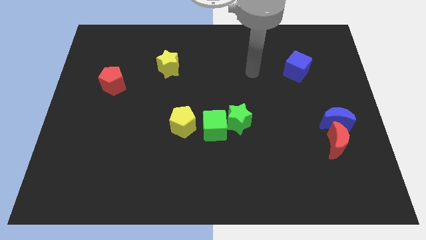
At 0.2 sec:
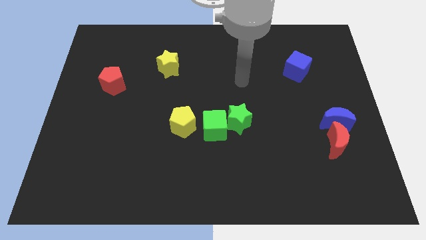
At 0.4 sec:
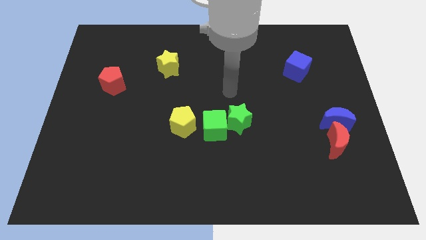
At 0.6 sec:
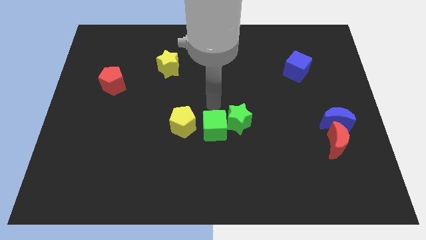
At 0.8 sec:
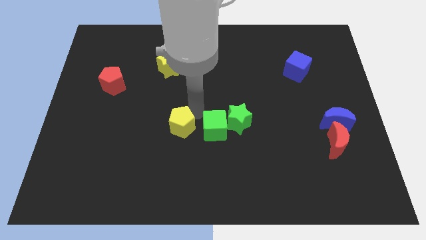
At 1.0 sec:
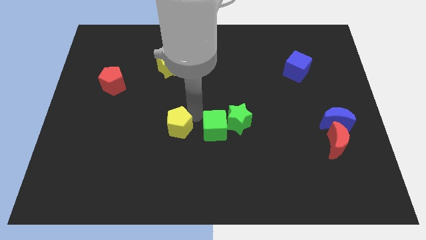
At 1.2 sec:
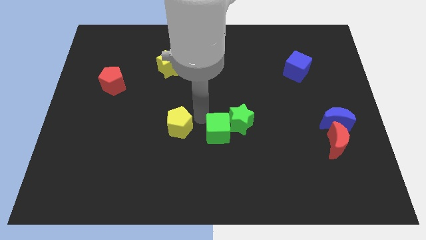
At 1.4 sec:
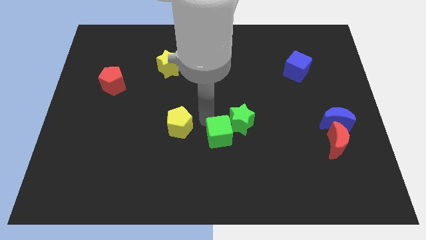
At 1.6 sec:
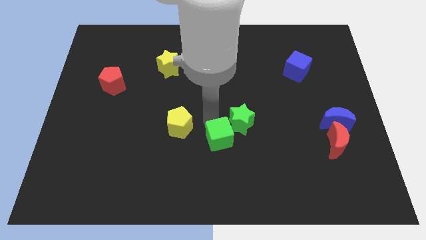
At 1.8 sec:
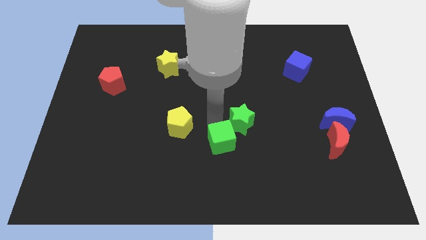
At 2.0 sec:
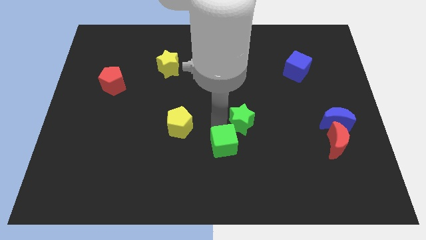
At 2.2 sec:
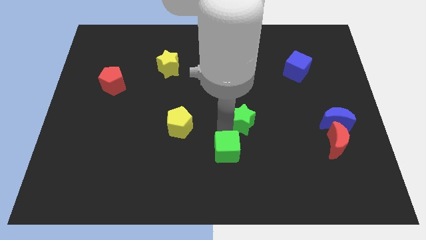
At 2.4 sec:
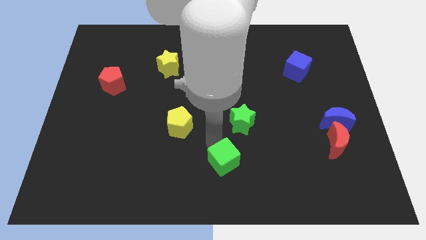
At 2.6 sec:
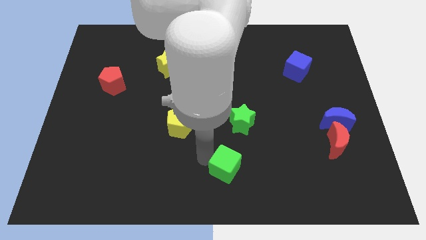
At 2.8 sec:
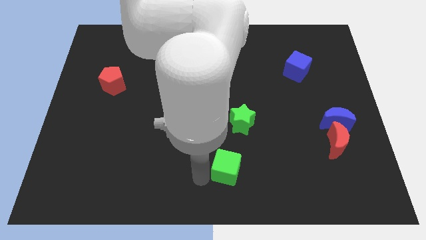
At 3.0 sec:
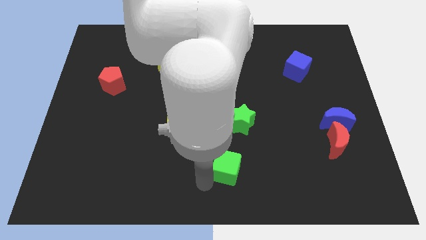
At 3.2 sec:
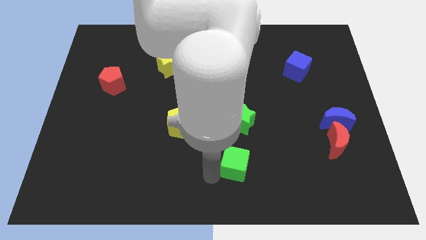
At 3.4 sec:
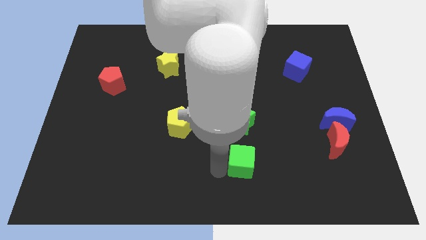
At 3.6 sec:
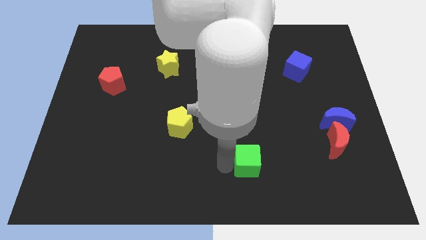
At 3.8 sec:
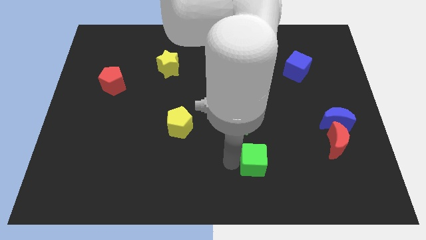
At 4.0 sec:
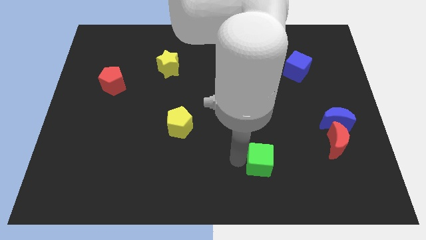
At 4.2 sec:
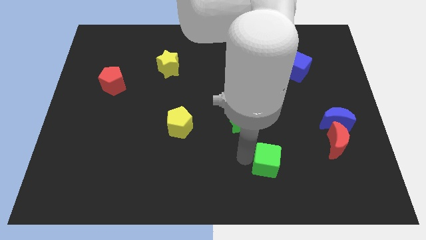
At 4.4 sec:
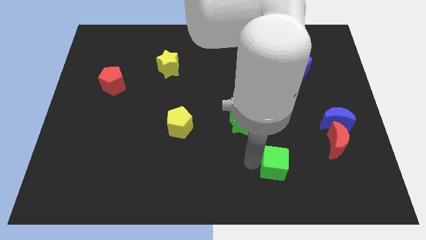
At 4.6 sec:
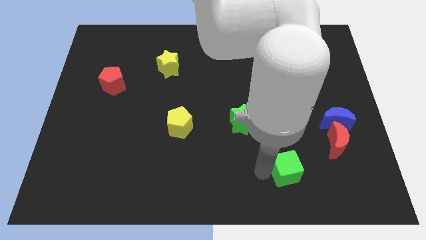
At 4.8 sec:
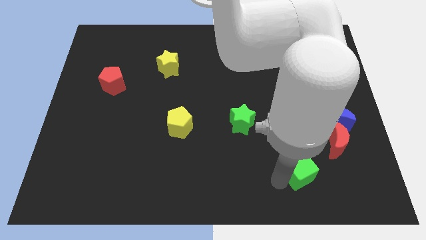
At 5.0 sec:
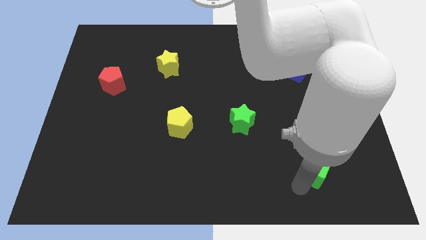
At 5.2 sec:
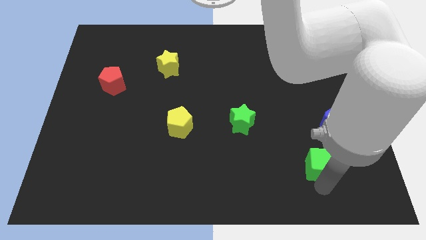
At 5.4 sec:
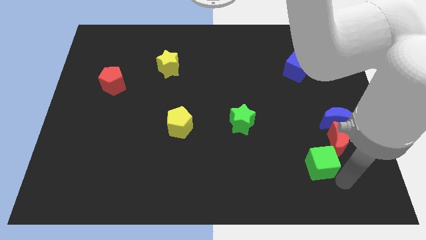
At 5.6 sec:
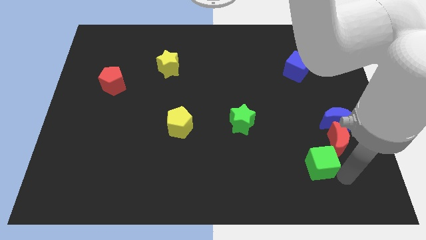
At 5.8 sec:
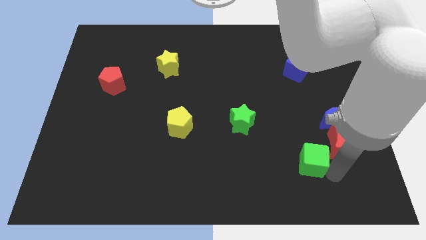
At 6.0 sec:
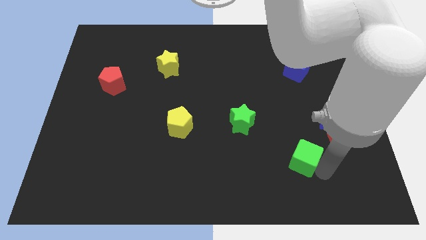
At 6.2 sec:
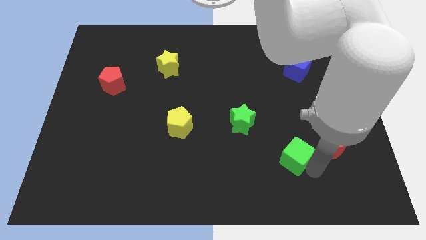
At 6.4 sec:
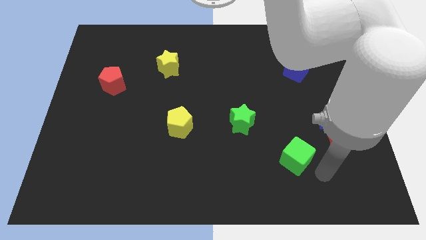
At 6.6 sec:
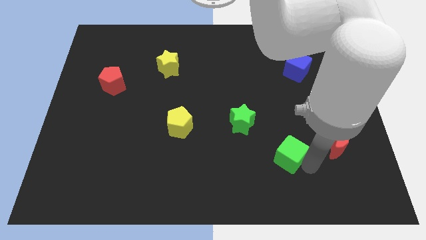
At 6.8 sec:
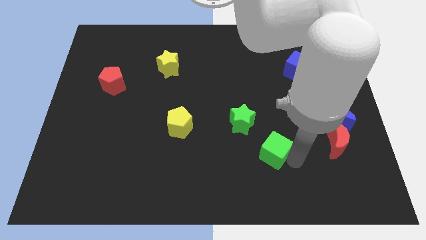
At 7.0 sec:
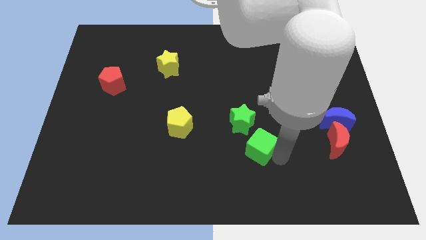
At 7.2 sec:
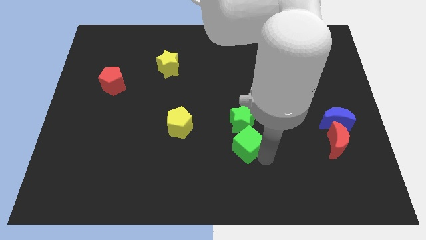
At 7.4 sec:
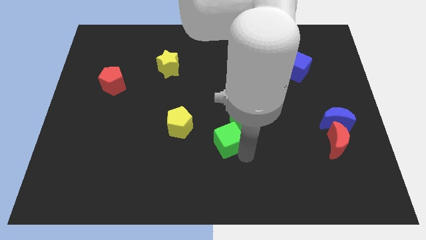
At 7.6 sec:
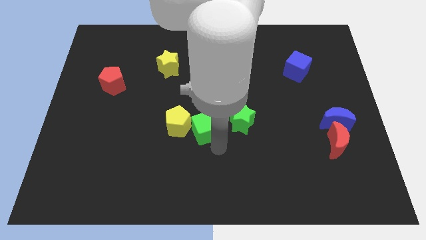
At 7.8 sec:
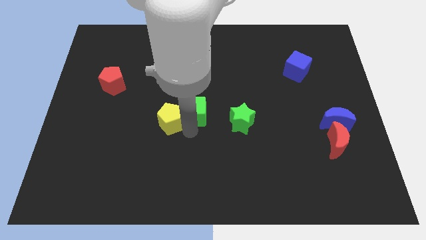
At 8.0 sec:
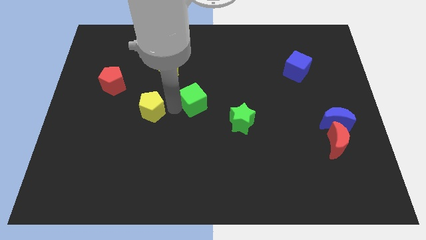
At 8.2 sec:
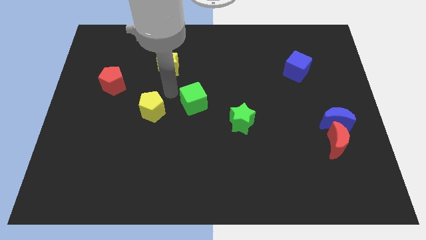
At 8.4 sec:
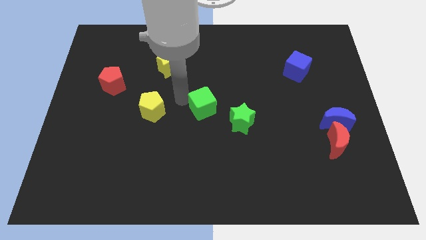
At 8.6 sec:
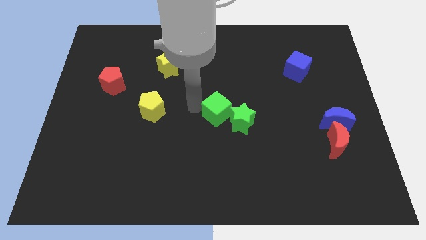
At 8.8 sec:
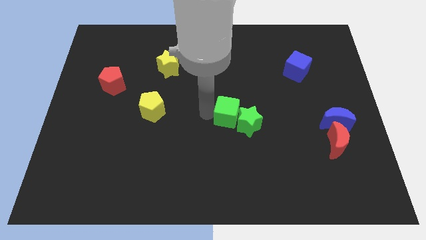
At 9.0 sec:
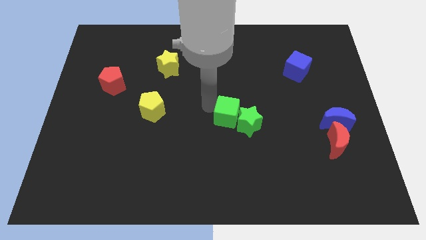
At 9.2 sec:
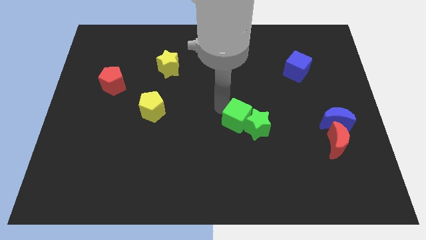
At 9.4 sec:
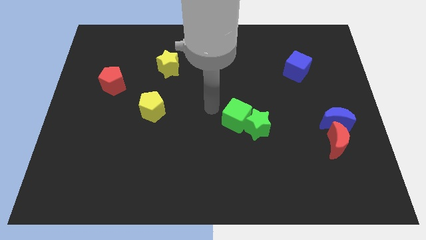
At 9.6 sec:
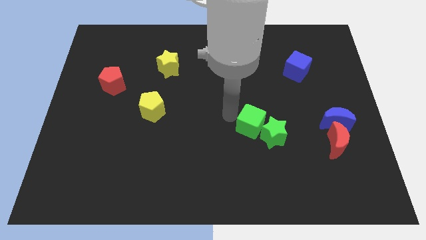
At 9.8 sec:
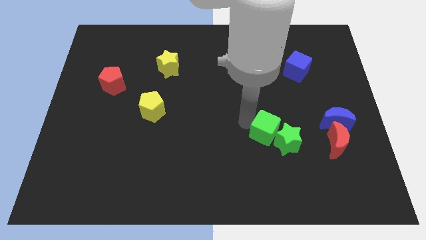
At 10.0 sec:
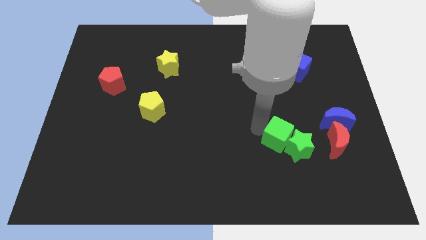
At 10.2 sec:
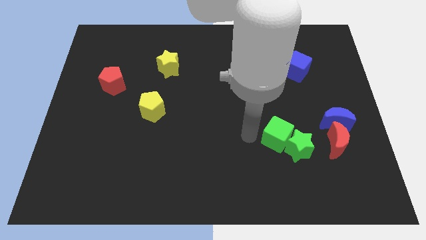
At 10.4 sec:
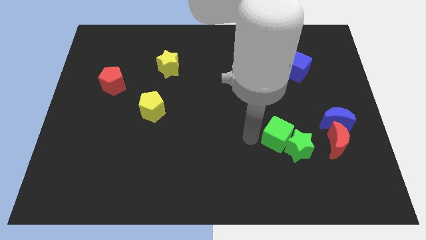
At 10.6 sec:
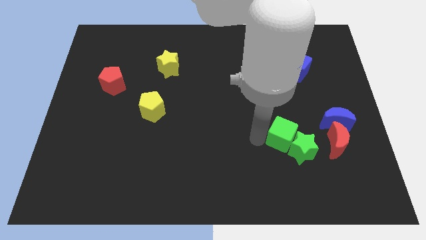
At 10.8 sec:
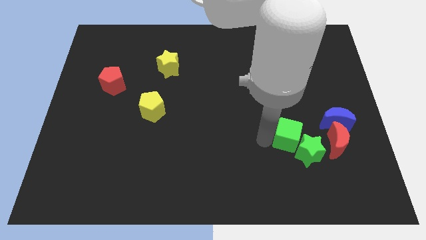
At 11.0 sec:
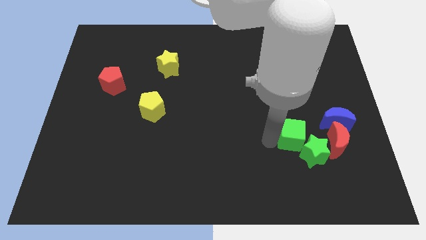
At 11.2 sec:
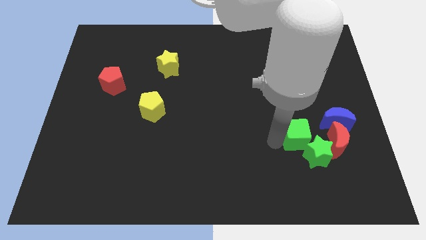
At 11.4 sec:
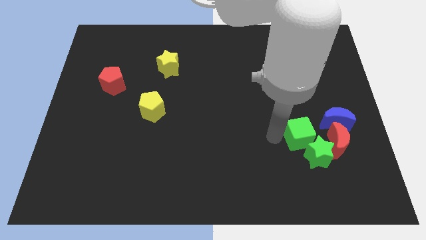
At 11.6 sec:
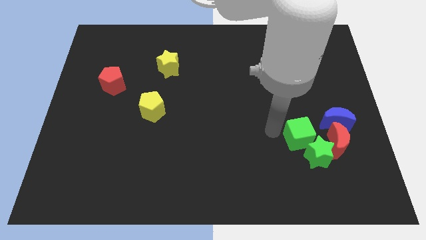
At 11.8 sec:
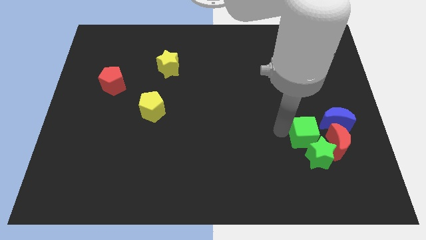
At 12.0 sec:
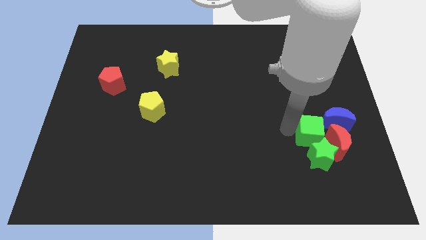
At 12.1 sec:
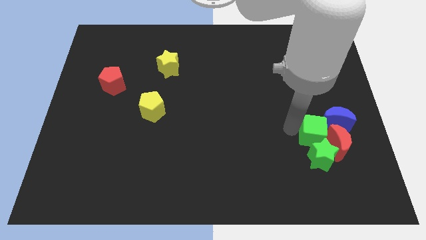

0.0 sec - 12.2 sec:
slide the green cube close to the red moon

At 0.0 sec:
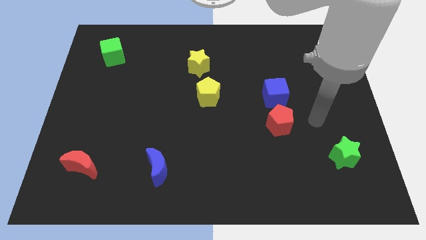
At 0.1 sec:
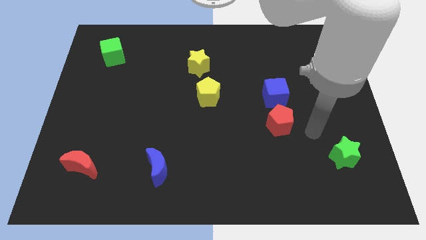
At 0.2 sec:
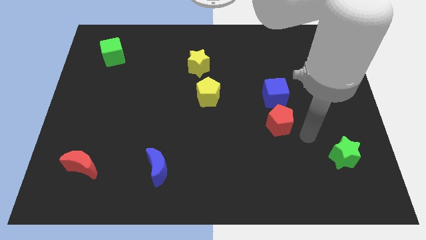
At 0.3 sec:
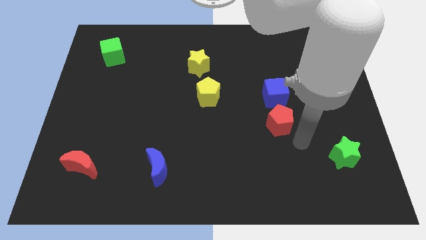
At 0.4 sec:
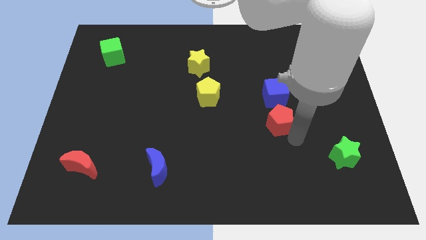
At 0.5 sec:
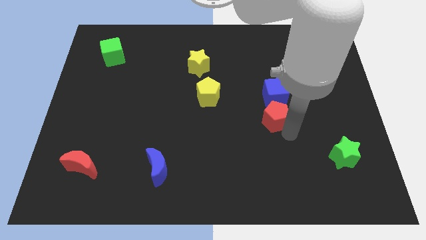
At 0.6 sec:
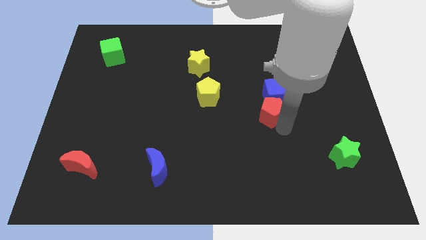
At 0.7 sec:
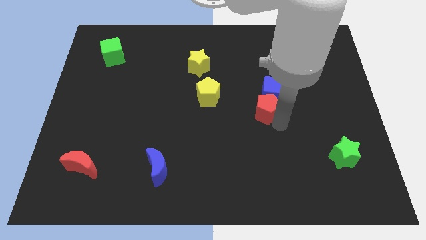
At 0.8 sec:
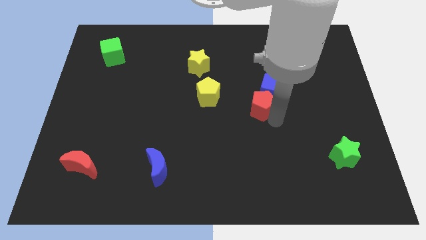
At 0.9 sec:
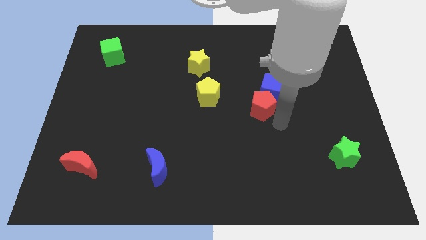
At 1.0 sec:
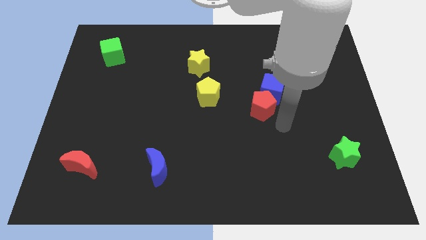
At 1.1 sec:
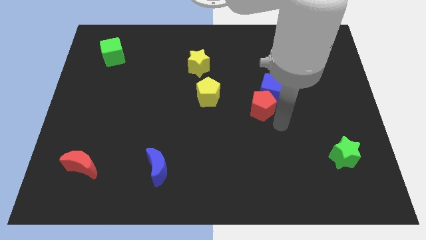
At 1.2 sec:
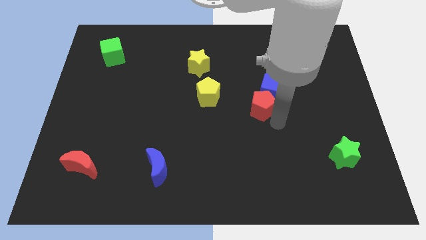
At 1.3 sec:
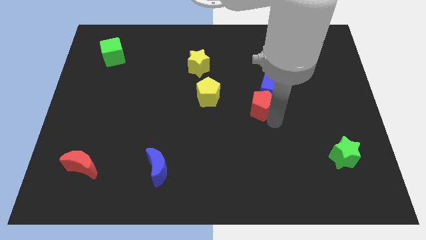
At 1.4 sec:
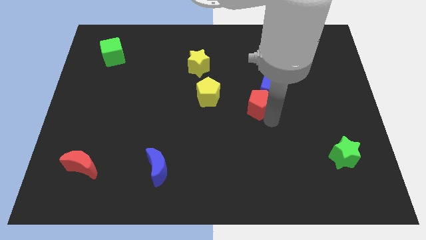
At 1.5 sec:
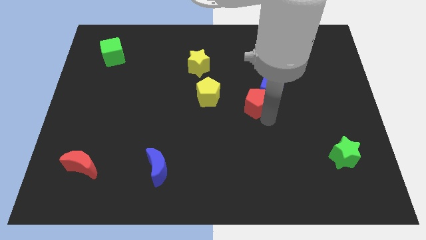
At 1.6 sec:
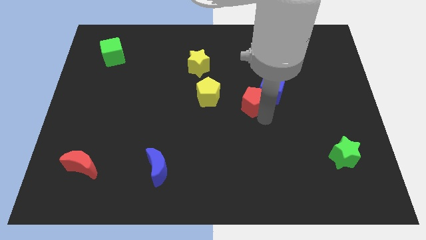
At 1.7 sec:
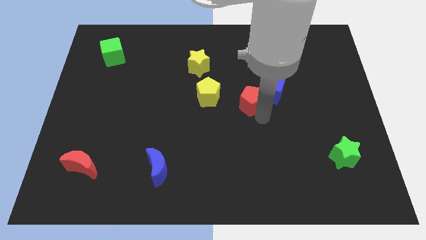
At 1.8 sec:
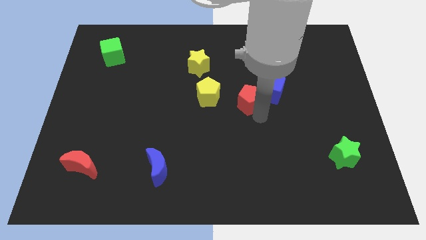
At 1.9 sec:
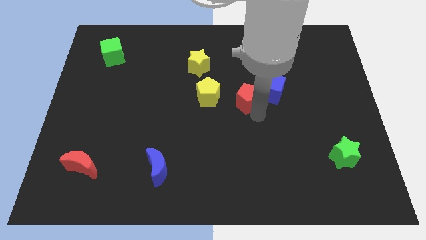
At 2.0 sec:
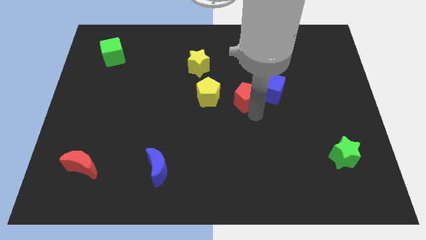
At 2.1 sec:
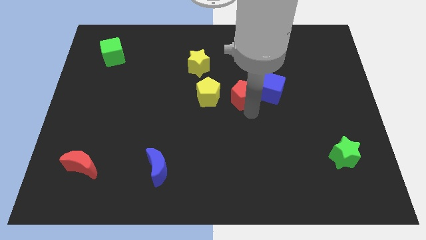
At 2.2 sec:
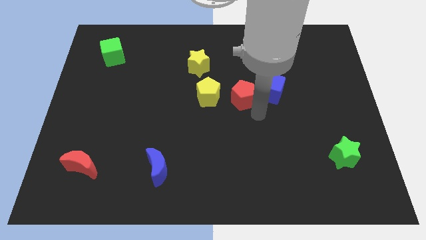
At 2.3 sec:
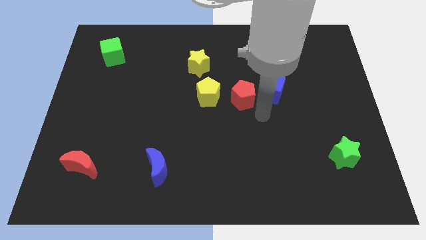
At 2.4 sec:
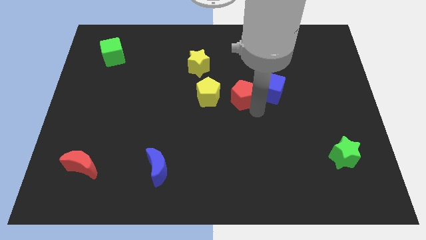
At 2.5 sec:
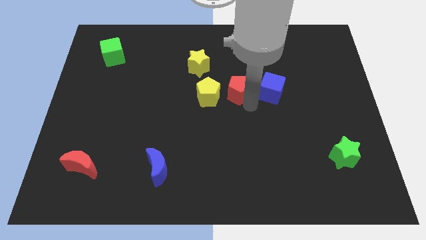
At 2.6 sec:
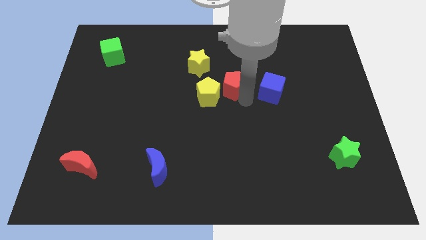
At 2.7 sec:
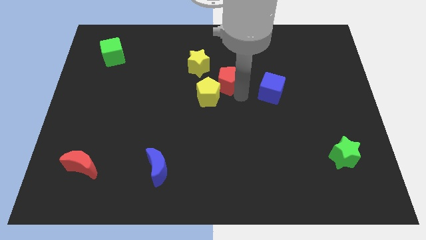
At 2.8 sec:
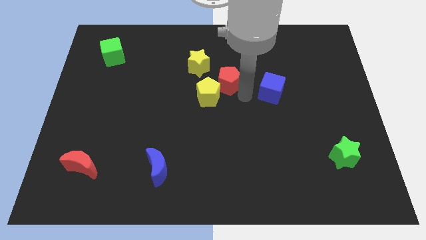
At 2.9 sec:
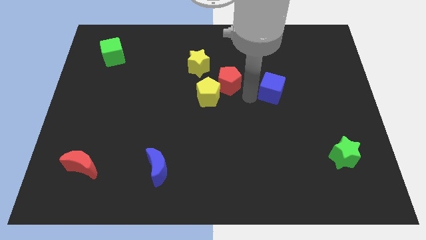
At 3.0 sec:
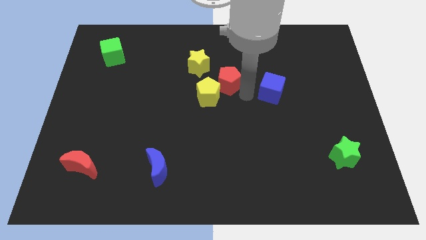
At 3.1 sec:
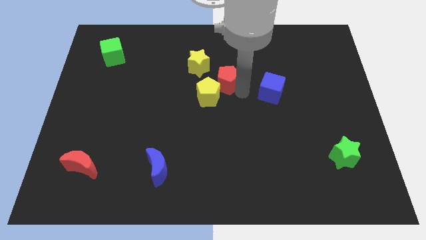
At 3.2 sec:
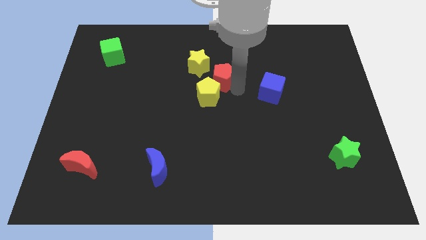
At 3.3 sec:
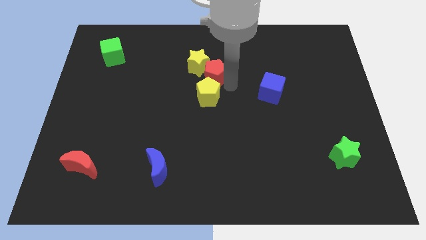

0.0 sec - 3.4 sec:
push the red pentagon next to the yellow star
